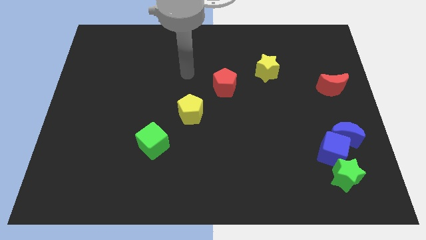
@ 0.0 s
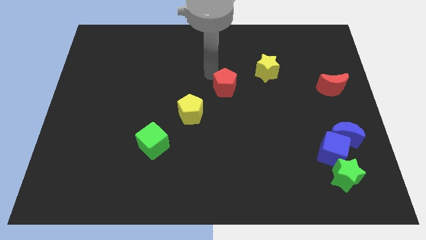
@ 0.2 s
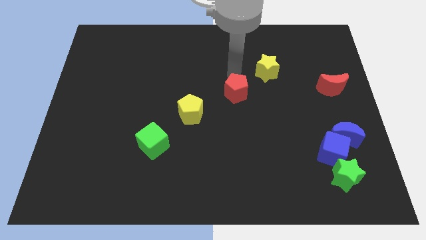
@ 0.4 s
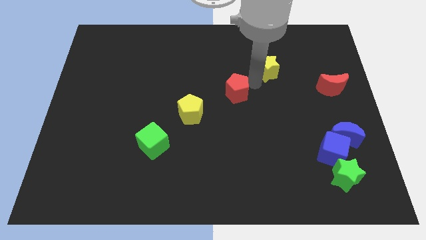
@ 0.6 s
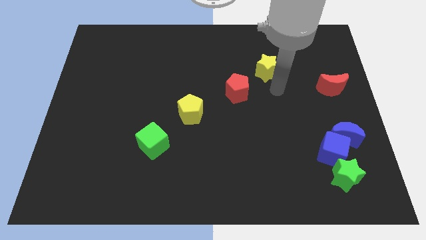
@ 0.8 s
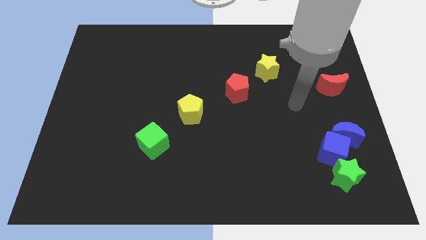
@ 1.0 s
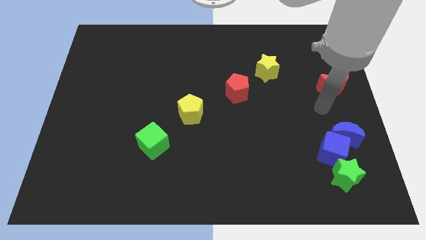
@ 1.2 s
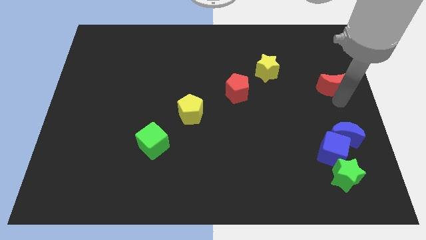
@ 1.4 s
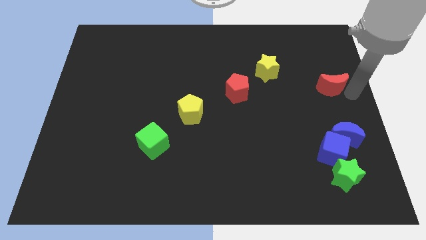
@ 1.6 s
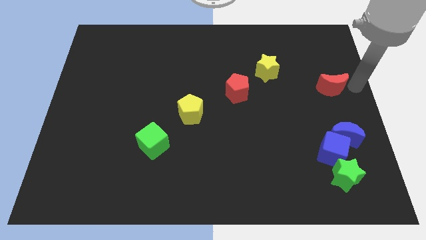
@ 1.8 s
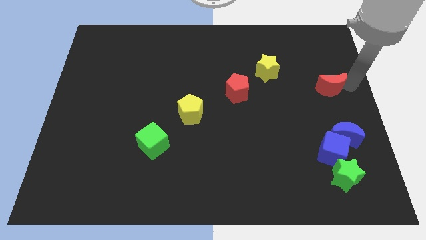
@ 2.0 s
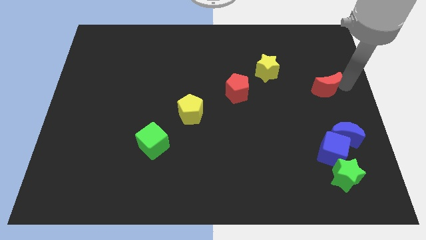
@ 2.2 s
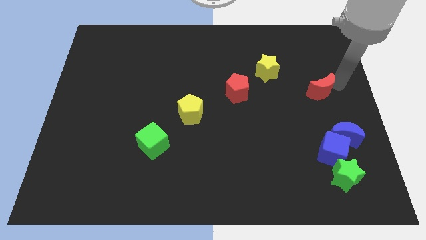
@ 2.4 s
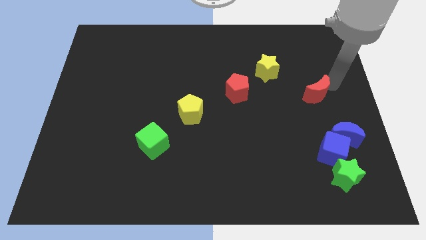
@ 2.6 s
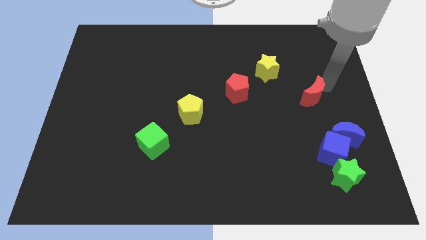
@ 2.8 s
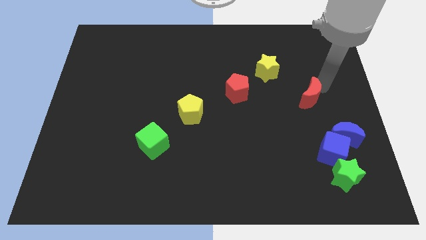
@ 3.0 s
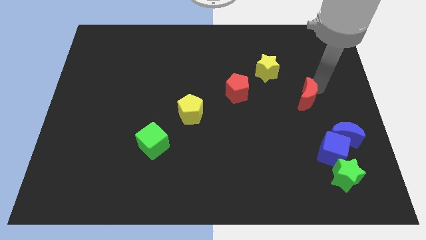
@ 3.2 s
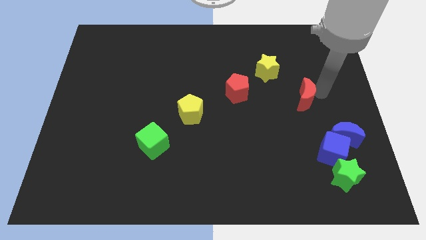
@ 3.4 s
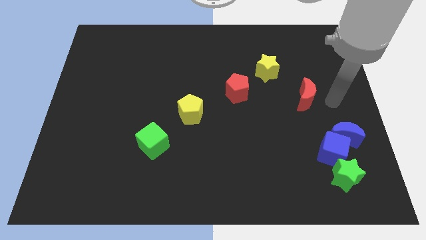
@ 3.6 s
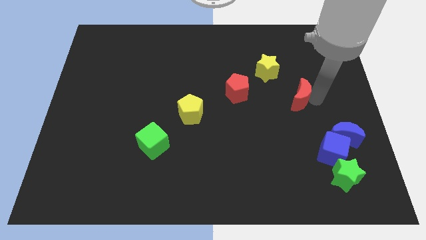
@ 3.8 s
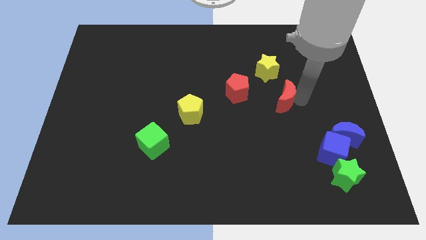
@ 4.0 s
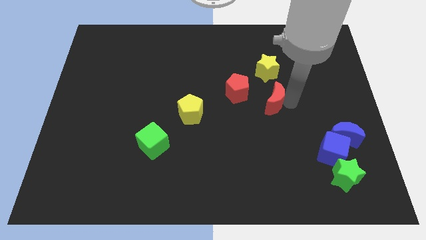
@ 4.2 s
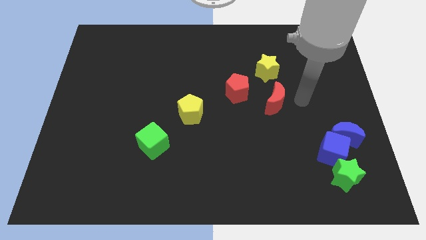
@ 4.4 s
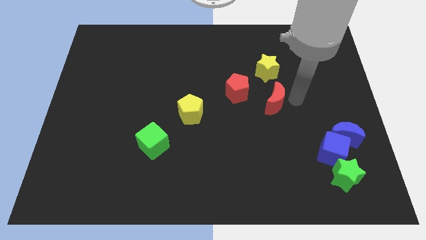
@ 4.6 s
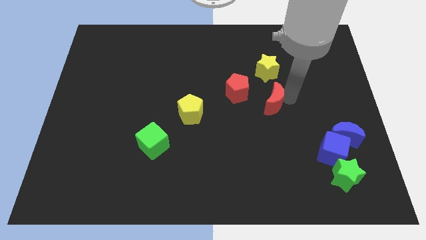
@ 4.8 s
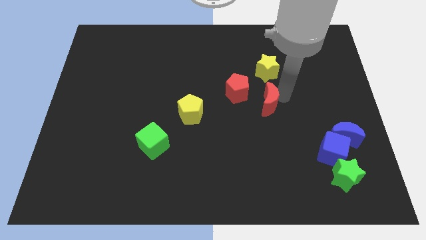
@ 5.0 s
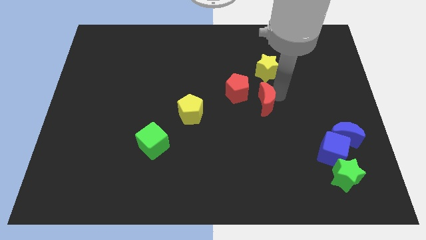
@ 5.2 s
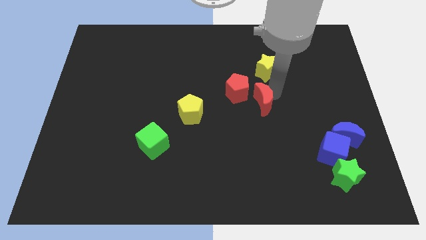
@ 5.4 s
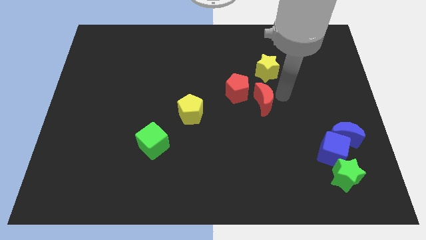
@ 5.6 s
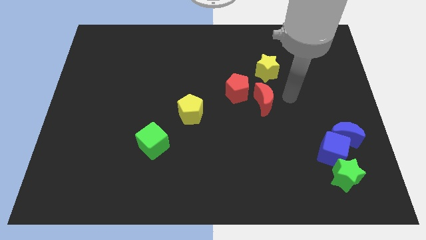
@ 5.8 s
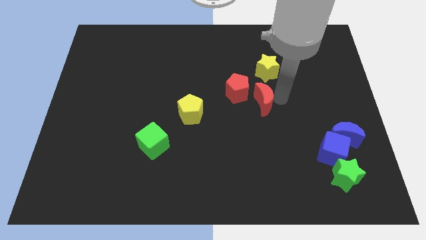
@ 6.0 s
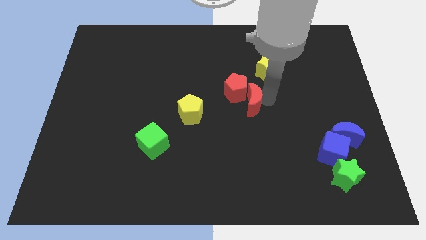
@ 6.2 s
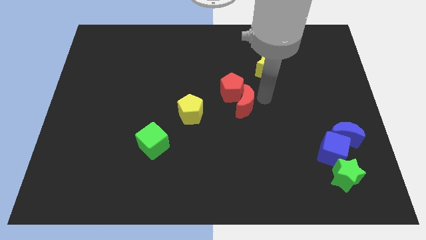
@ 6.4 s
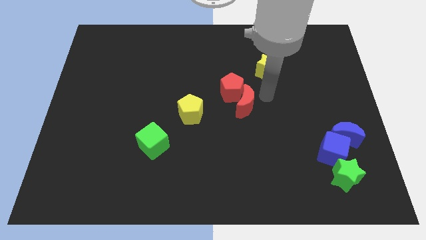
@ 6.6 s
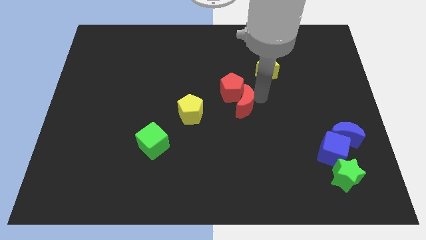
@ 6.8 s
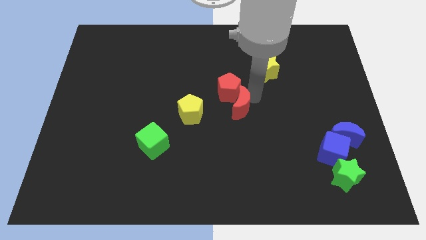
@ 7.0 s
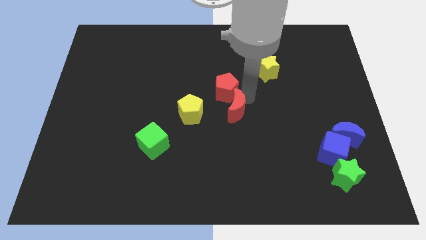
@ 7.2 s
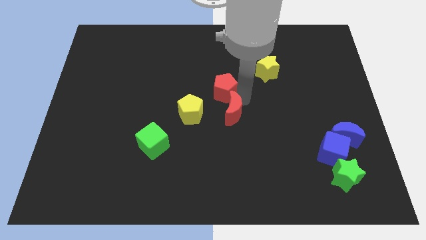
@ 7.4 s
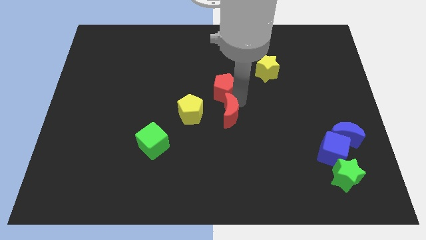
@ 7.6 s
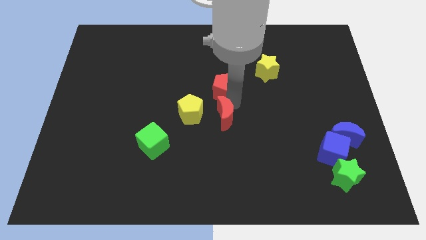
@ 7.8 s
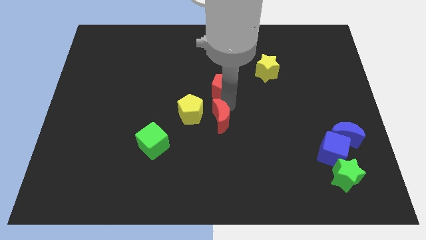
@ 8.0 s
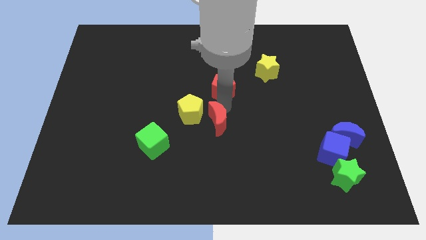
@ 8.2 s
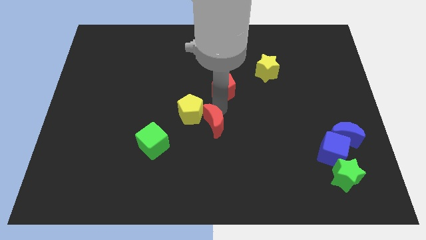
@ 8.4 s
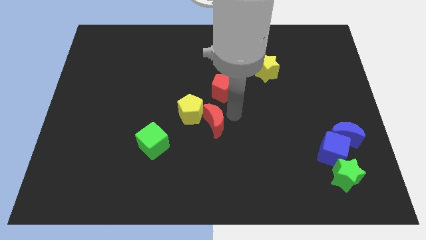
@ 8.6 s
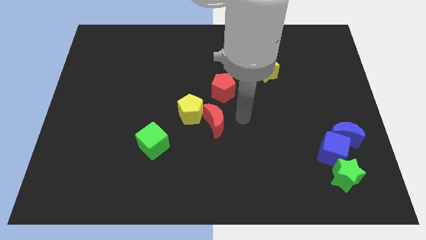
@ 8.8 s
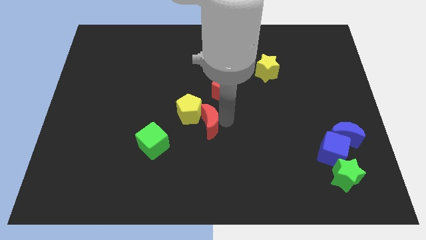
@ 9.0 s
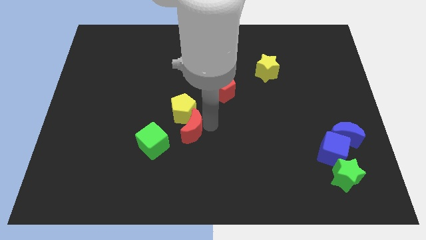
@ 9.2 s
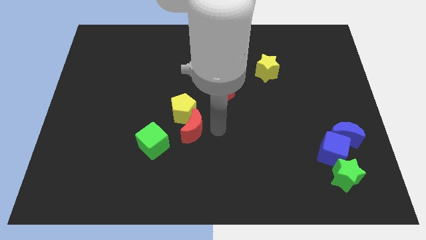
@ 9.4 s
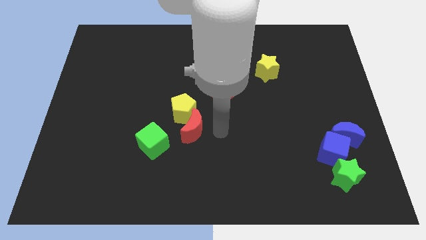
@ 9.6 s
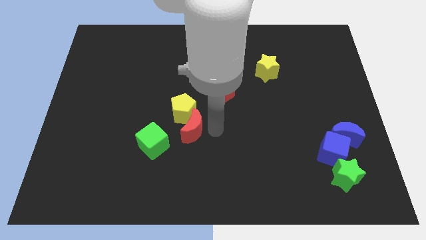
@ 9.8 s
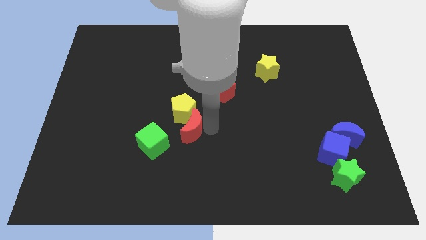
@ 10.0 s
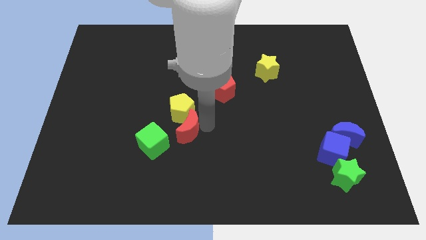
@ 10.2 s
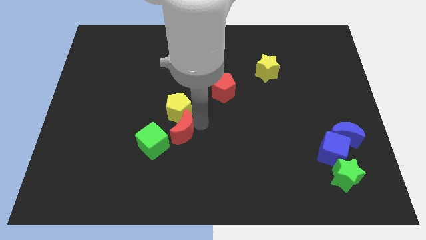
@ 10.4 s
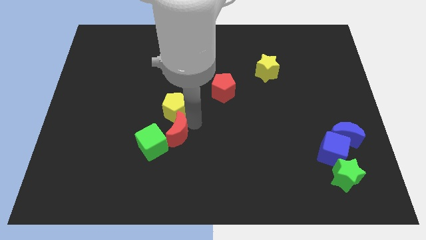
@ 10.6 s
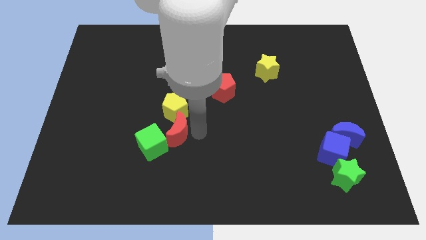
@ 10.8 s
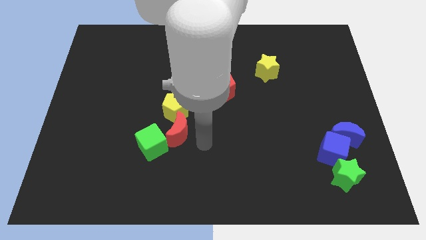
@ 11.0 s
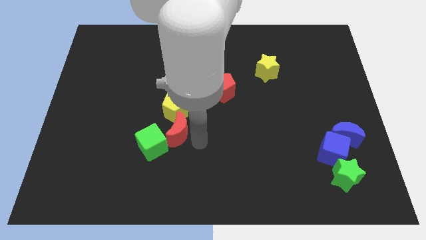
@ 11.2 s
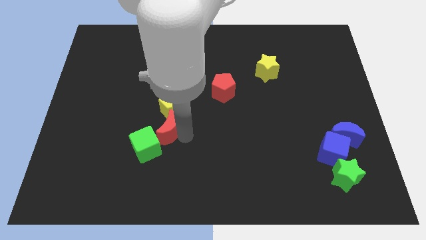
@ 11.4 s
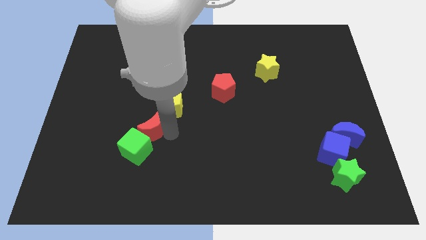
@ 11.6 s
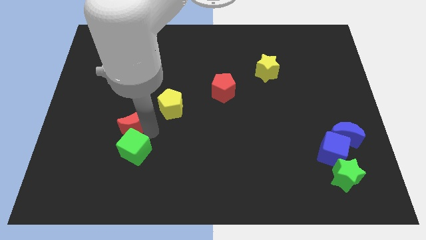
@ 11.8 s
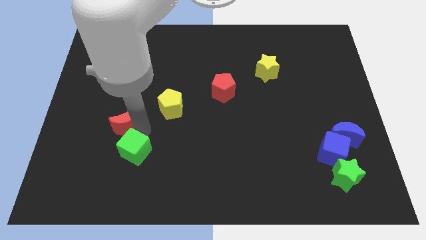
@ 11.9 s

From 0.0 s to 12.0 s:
move the red moon just left of the yellow pentagon

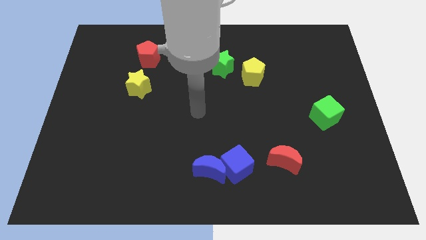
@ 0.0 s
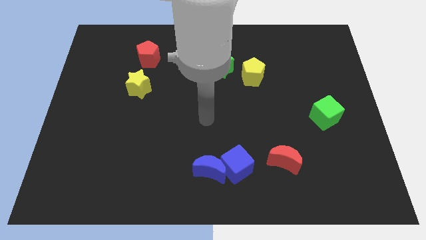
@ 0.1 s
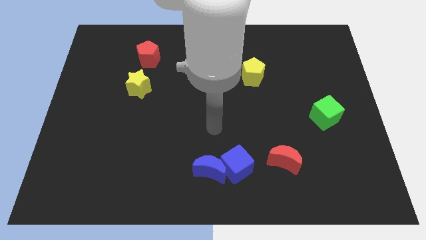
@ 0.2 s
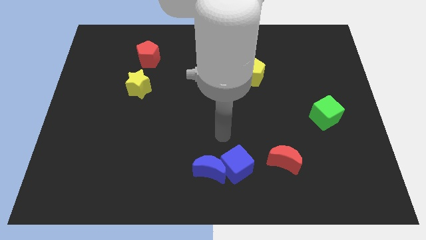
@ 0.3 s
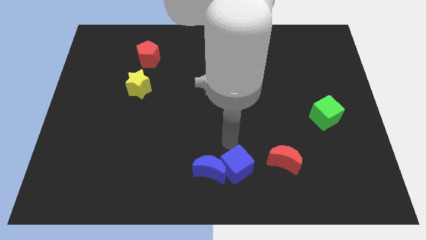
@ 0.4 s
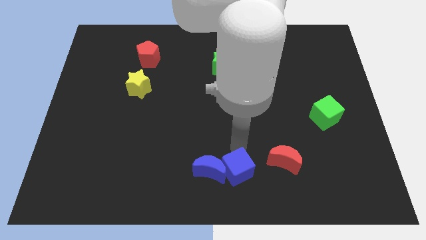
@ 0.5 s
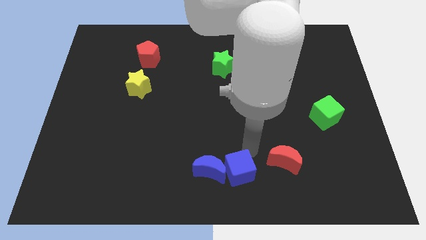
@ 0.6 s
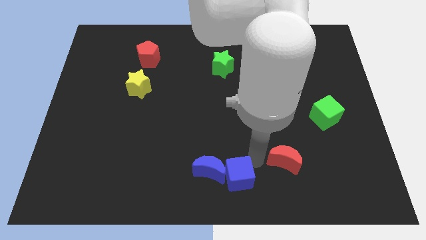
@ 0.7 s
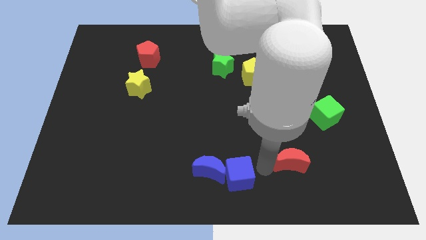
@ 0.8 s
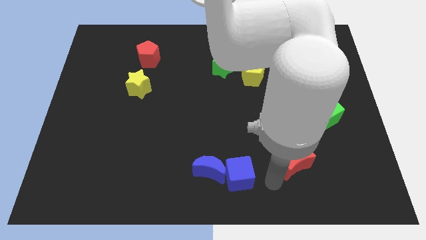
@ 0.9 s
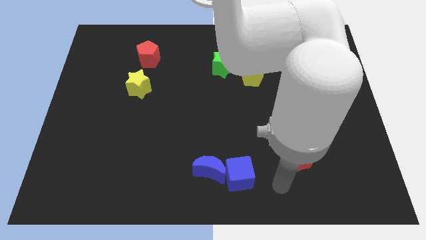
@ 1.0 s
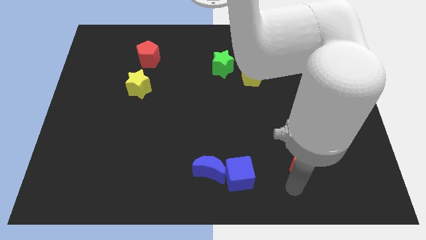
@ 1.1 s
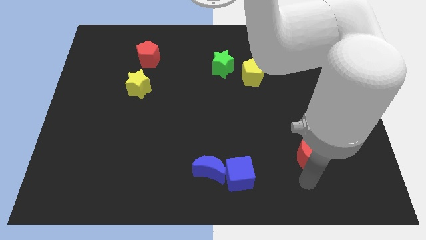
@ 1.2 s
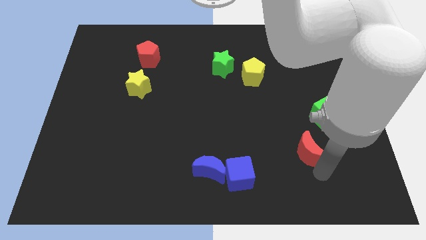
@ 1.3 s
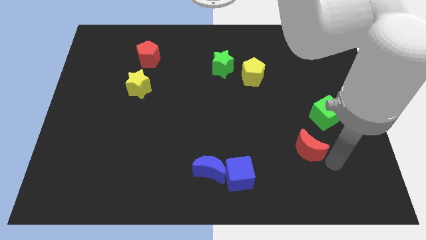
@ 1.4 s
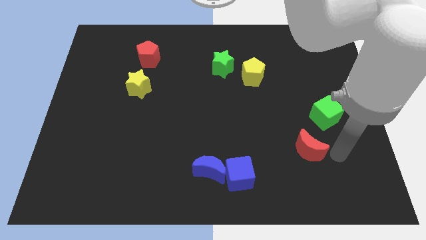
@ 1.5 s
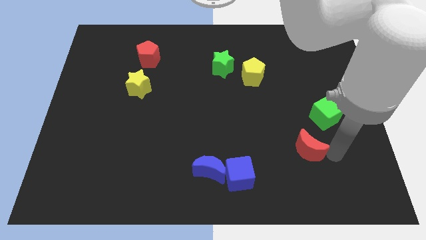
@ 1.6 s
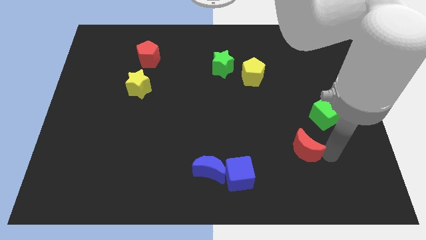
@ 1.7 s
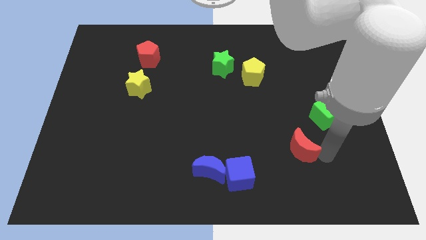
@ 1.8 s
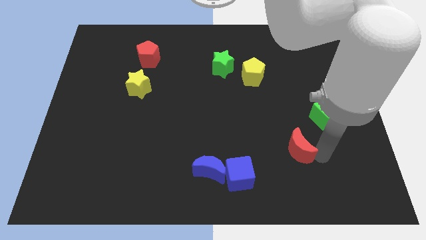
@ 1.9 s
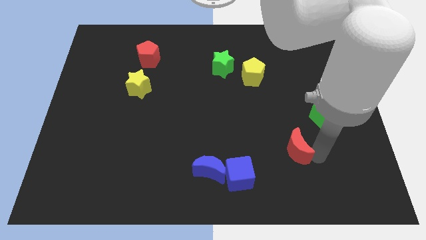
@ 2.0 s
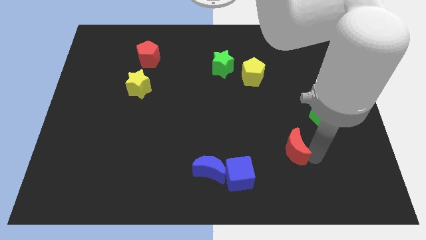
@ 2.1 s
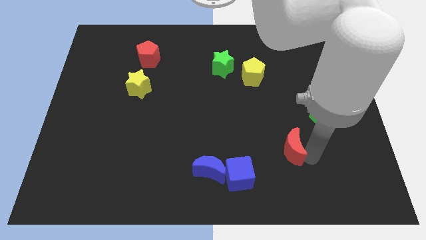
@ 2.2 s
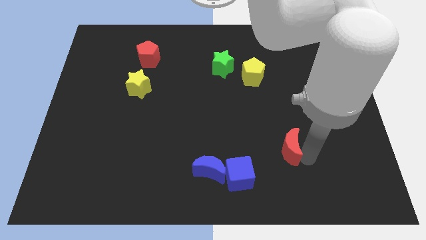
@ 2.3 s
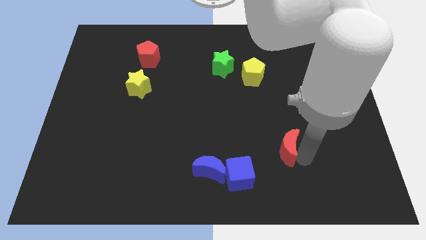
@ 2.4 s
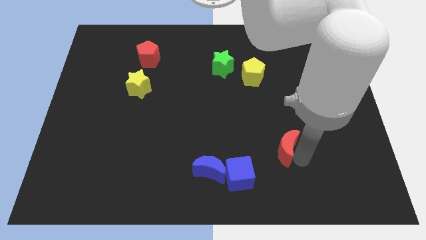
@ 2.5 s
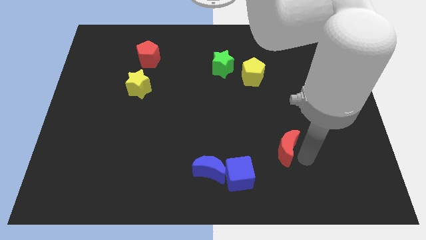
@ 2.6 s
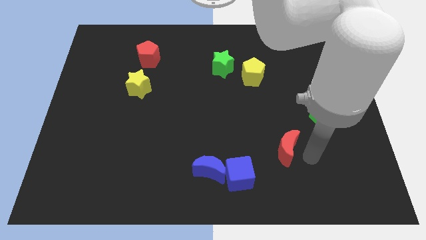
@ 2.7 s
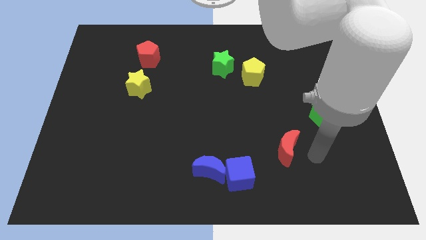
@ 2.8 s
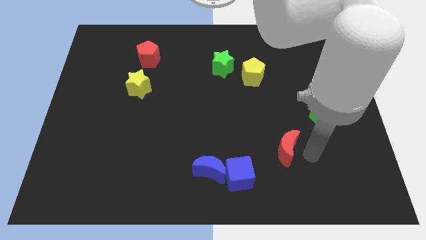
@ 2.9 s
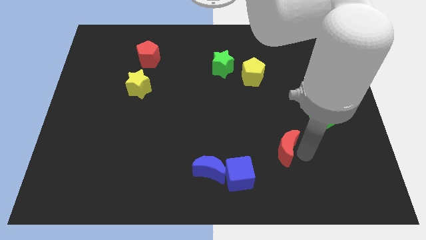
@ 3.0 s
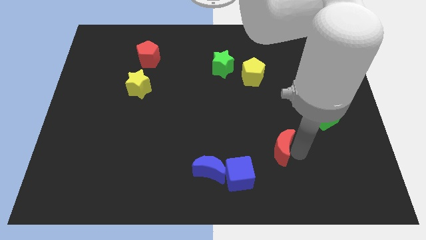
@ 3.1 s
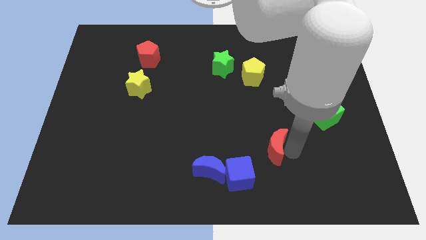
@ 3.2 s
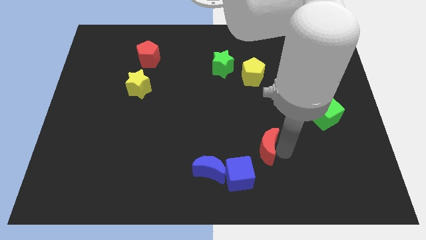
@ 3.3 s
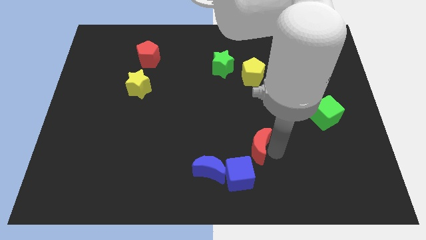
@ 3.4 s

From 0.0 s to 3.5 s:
put the red moon above the blue cube
